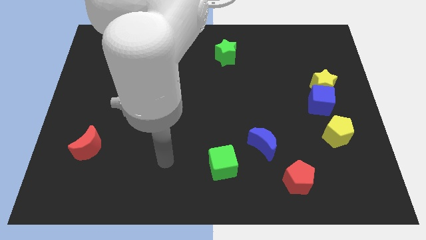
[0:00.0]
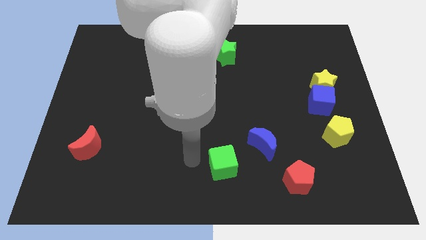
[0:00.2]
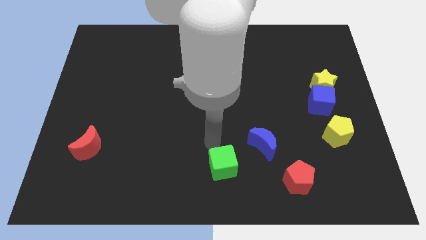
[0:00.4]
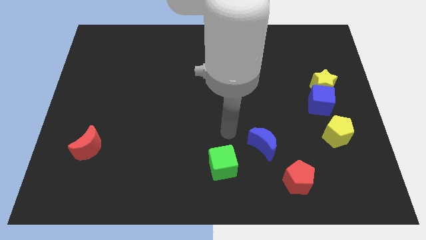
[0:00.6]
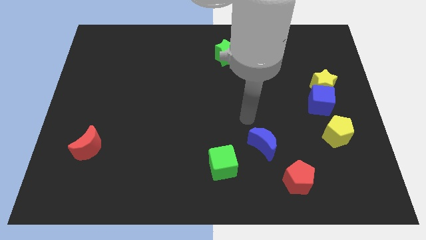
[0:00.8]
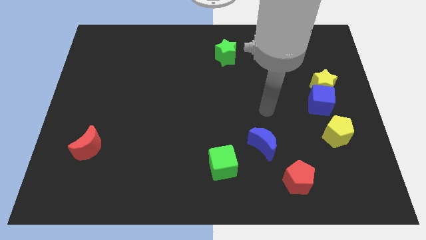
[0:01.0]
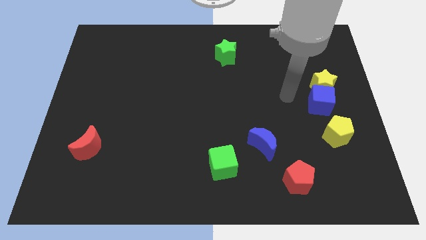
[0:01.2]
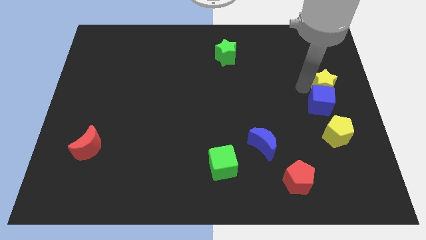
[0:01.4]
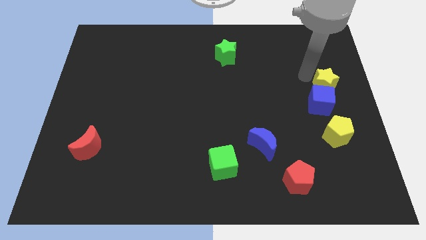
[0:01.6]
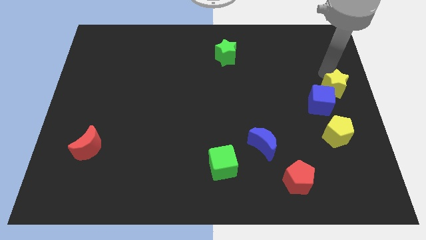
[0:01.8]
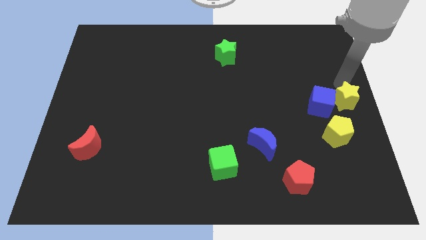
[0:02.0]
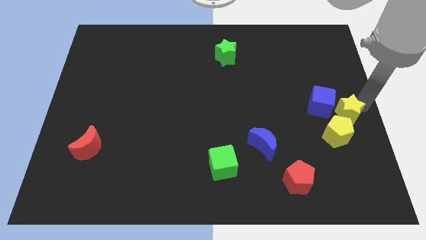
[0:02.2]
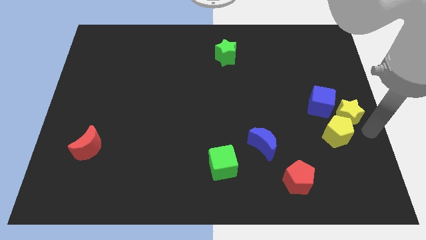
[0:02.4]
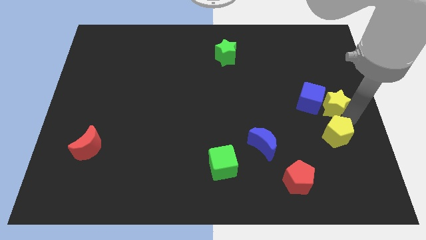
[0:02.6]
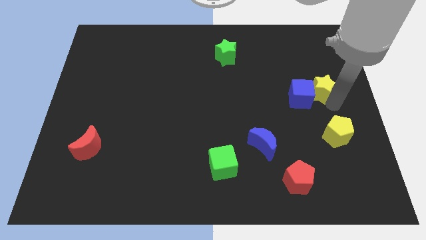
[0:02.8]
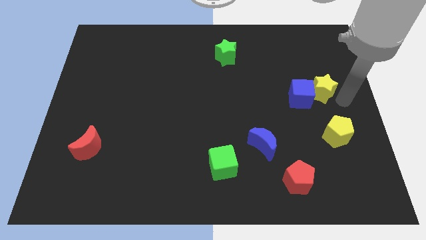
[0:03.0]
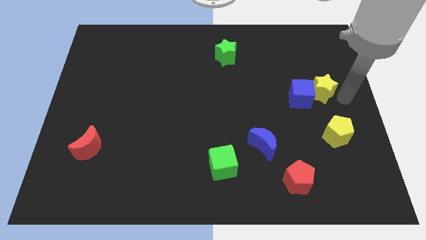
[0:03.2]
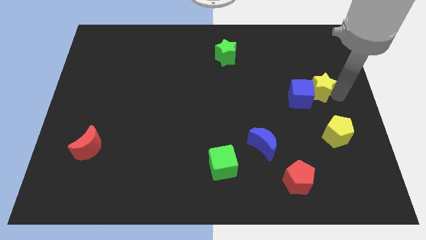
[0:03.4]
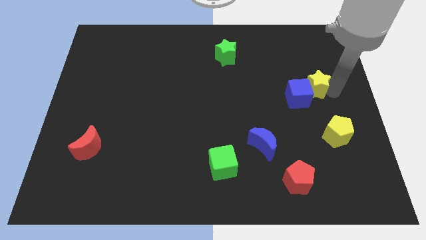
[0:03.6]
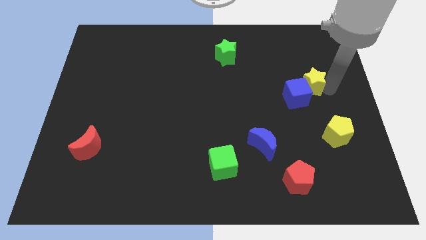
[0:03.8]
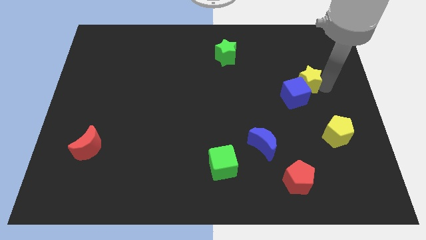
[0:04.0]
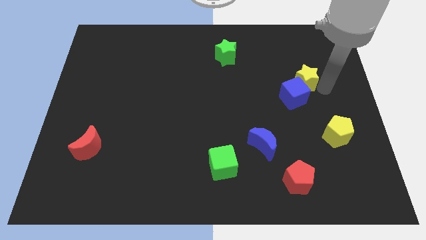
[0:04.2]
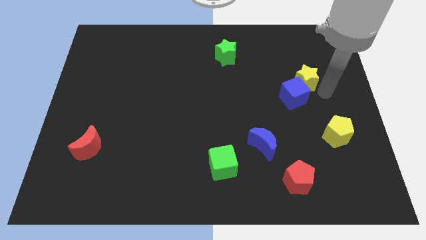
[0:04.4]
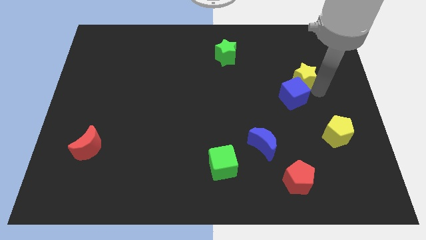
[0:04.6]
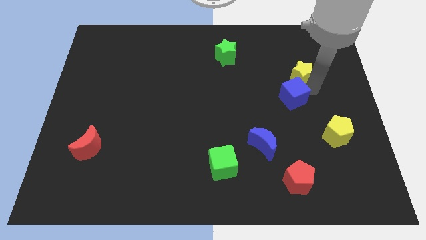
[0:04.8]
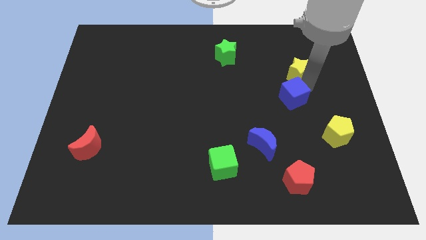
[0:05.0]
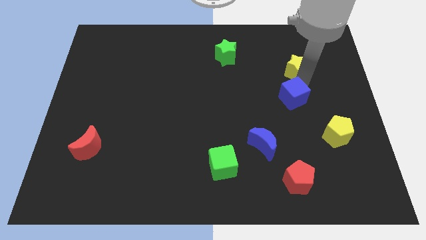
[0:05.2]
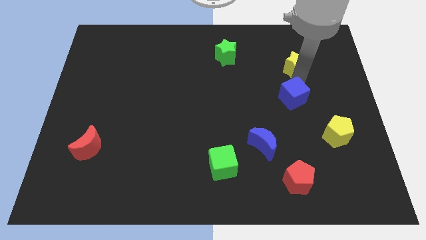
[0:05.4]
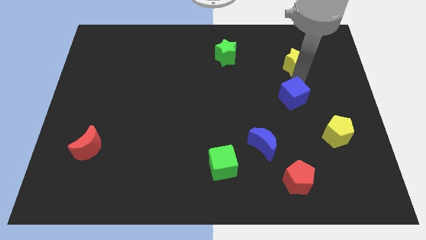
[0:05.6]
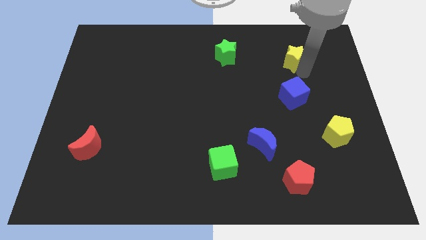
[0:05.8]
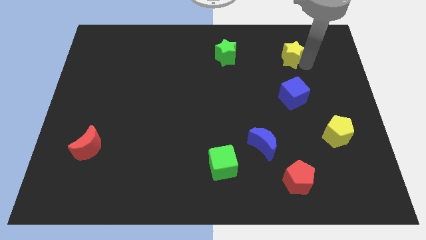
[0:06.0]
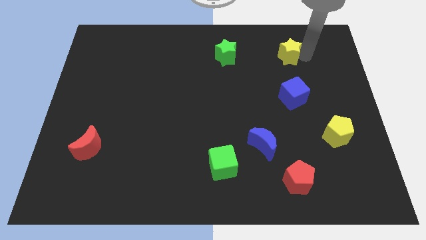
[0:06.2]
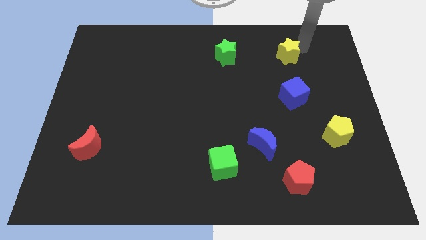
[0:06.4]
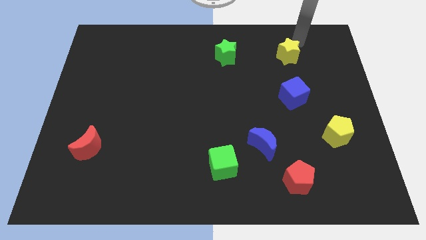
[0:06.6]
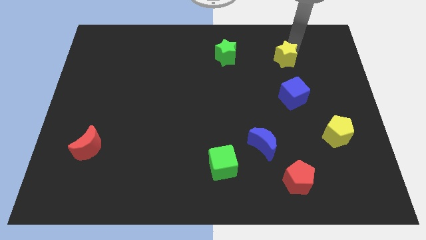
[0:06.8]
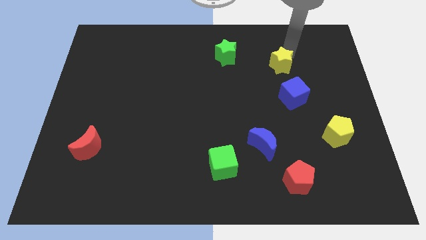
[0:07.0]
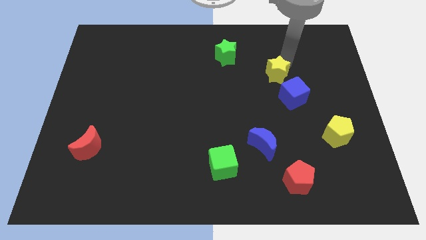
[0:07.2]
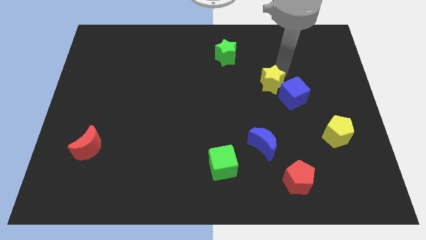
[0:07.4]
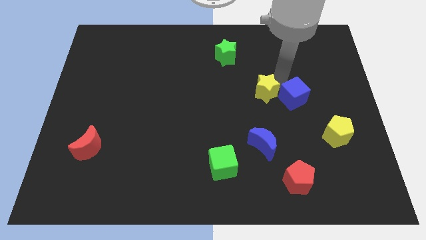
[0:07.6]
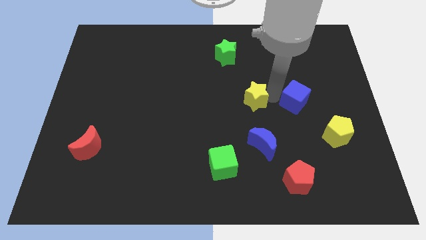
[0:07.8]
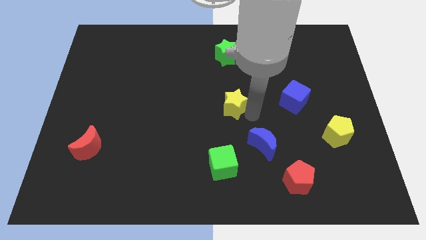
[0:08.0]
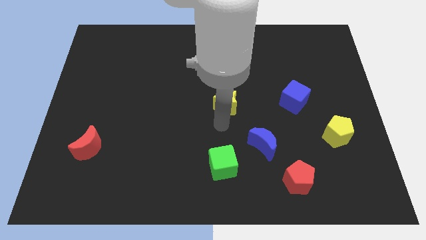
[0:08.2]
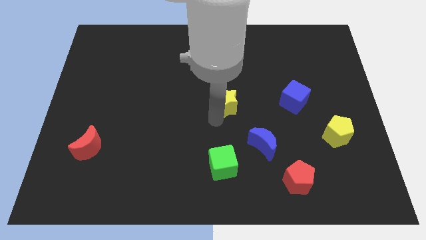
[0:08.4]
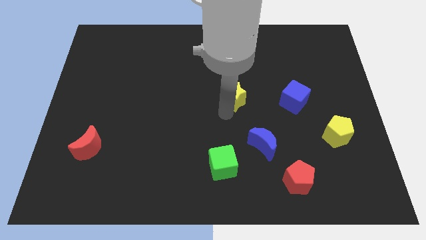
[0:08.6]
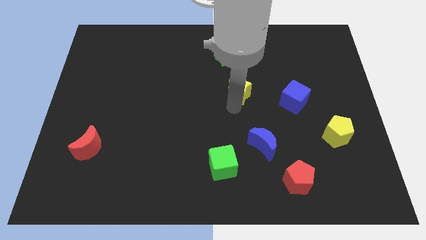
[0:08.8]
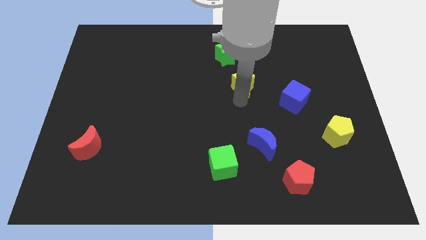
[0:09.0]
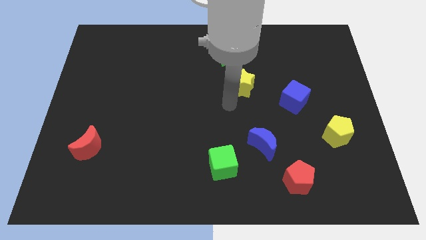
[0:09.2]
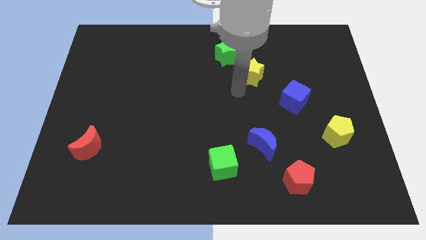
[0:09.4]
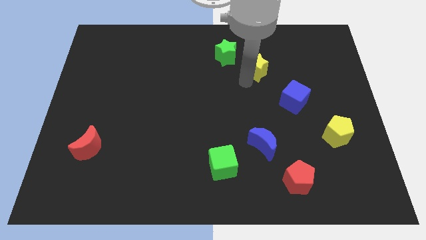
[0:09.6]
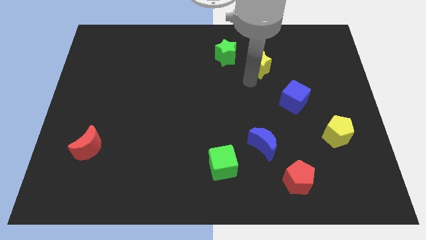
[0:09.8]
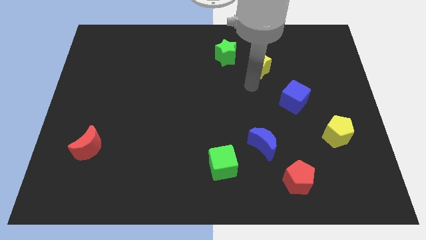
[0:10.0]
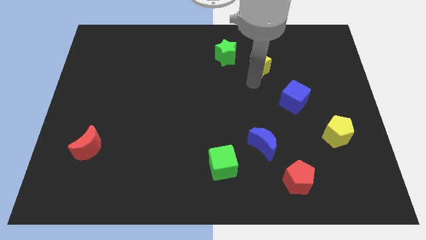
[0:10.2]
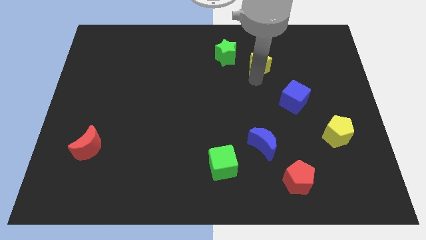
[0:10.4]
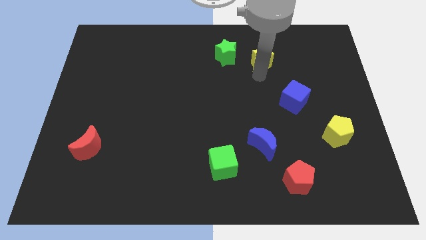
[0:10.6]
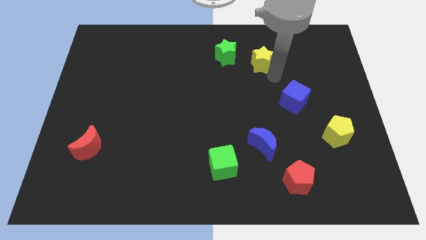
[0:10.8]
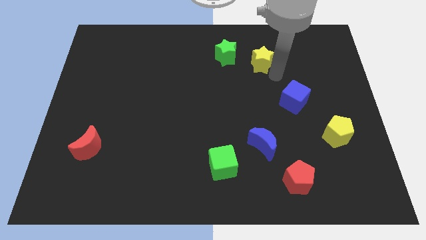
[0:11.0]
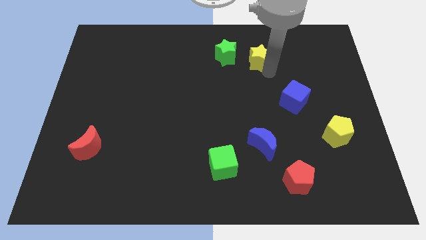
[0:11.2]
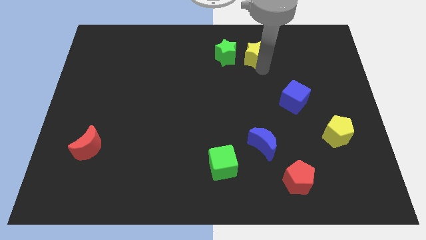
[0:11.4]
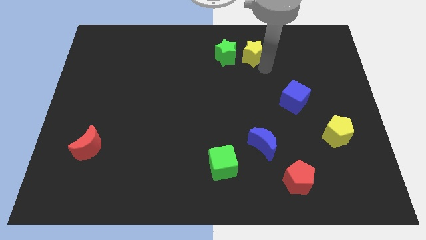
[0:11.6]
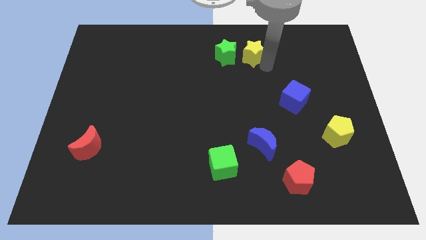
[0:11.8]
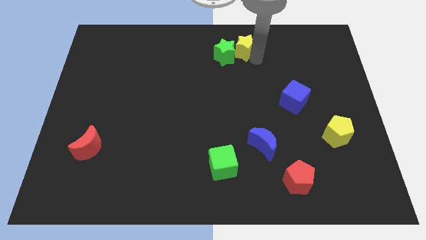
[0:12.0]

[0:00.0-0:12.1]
move the yellow star to the top

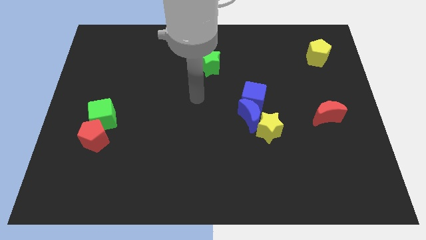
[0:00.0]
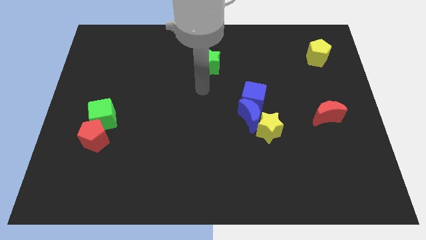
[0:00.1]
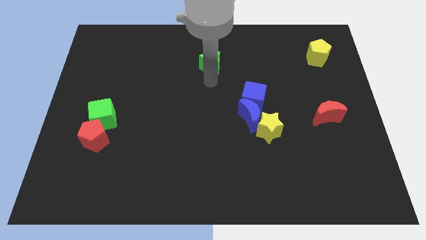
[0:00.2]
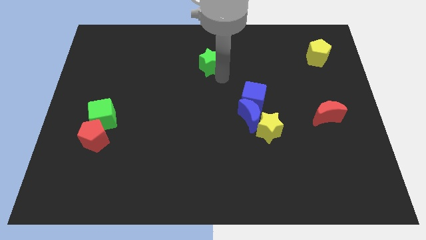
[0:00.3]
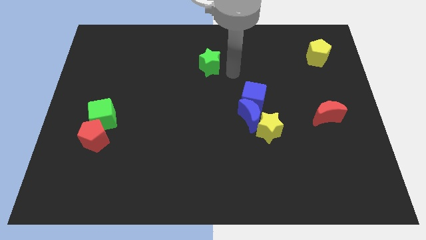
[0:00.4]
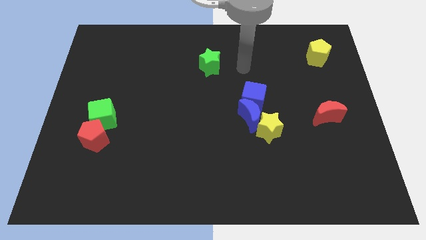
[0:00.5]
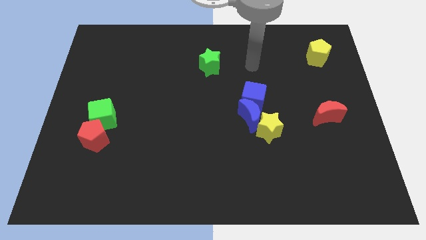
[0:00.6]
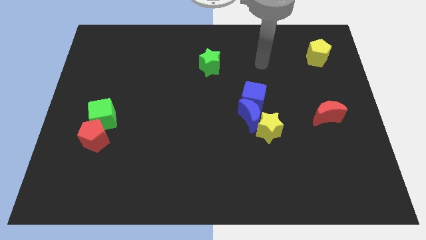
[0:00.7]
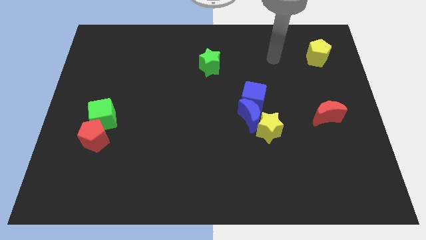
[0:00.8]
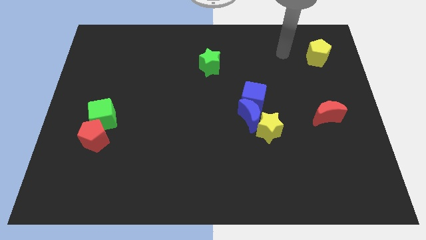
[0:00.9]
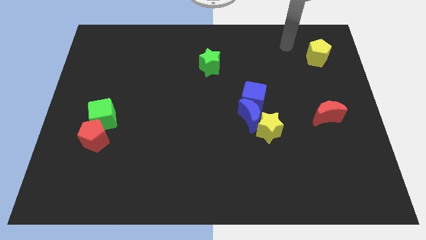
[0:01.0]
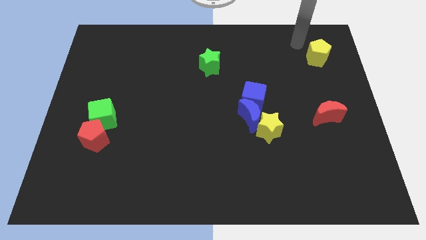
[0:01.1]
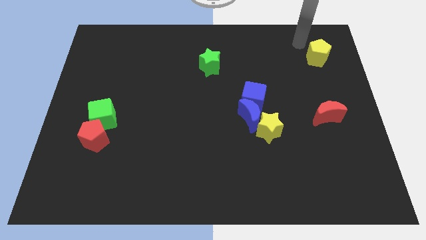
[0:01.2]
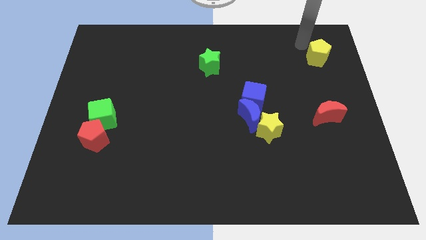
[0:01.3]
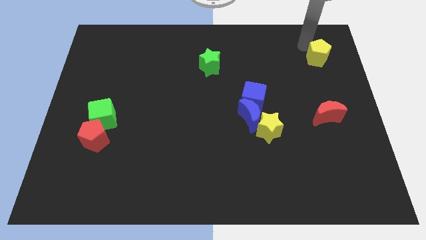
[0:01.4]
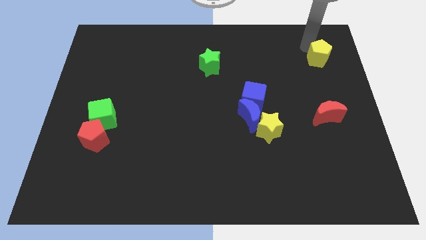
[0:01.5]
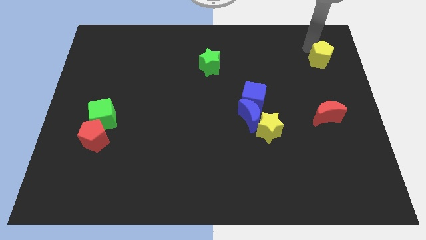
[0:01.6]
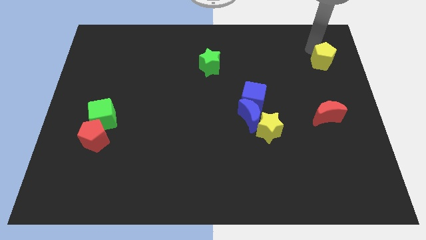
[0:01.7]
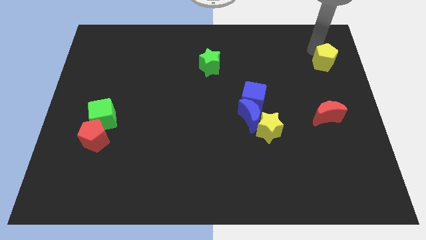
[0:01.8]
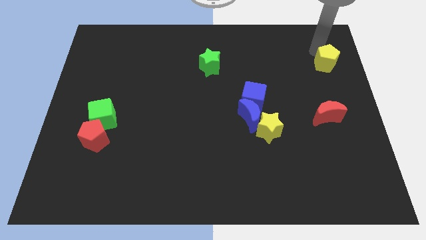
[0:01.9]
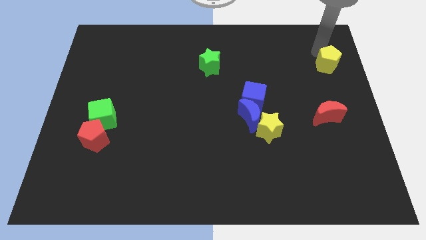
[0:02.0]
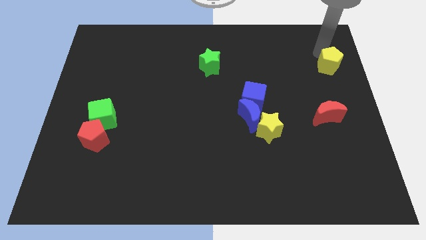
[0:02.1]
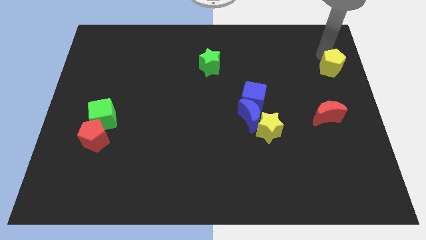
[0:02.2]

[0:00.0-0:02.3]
put the yellow pentagon to the center right
